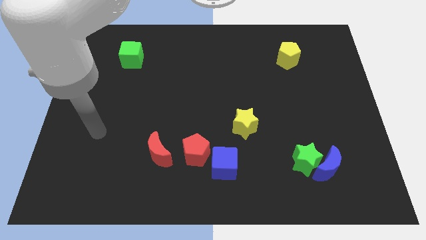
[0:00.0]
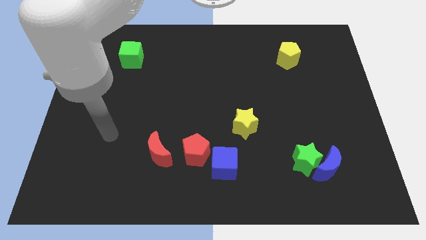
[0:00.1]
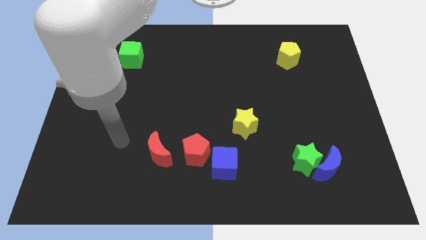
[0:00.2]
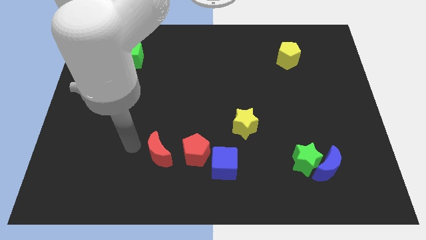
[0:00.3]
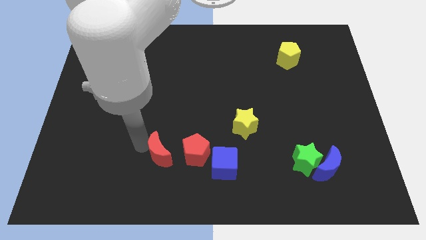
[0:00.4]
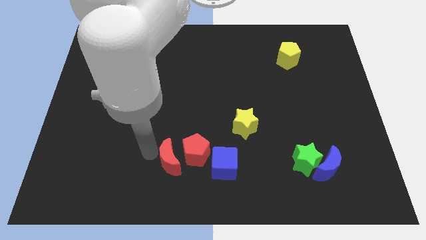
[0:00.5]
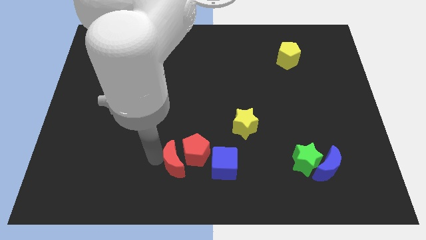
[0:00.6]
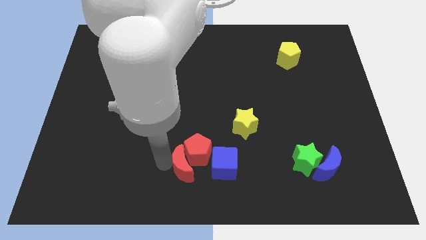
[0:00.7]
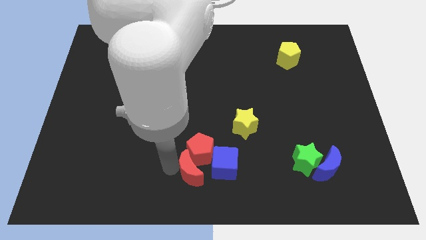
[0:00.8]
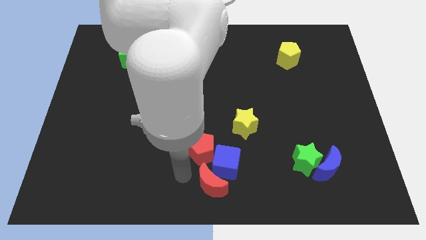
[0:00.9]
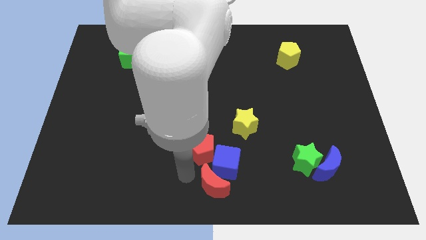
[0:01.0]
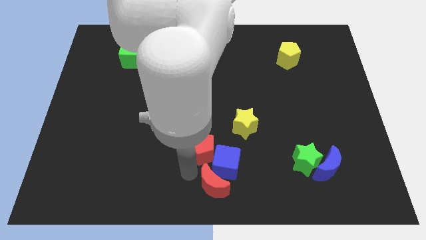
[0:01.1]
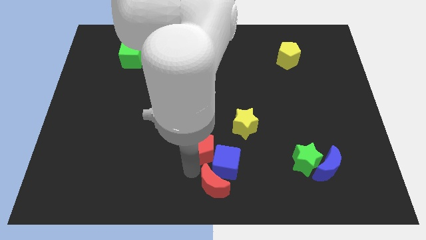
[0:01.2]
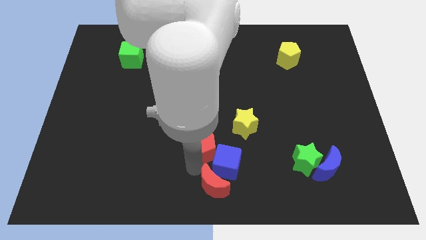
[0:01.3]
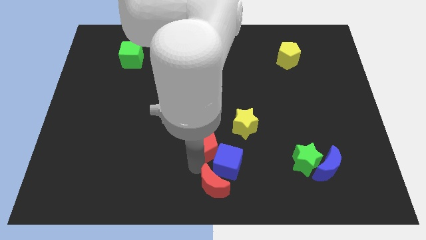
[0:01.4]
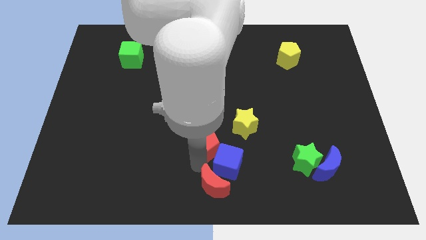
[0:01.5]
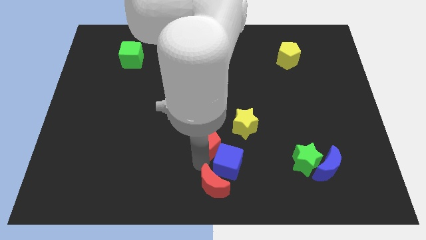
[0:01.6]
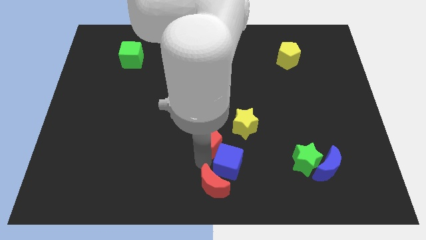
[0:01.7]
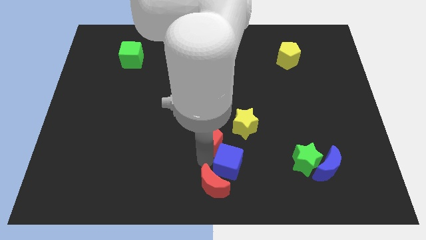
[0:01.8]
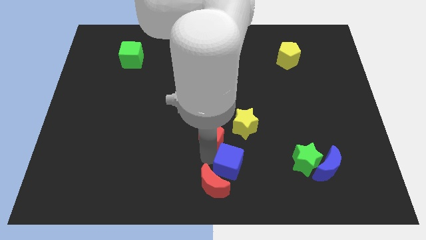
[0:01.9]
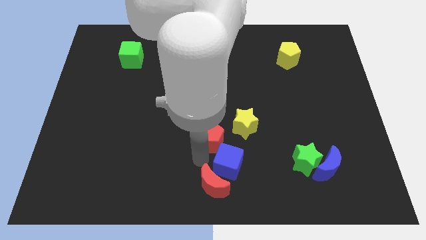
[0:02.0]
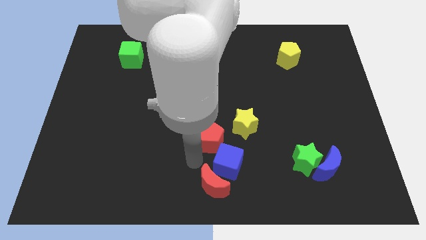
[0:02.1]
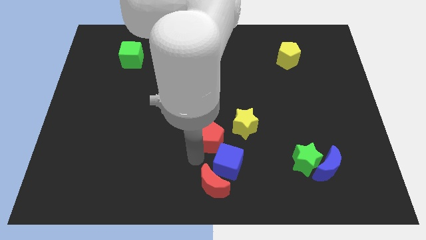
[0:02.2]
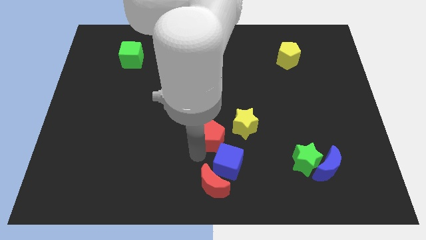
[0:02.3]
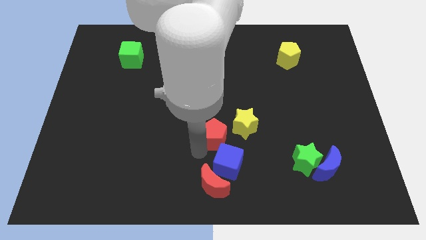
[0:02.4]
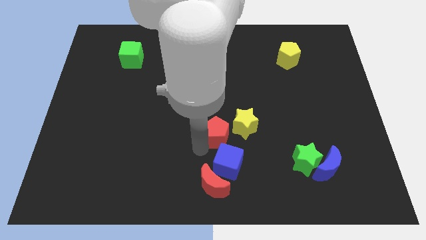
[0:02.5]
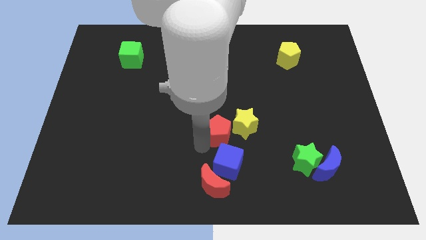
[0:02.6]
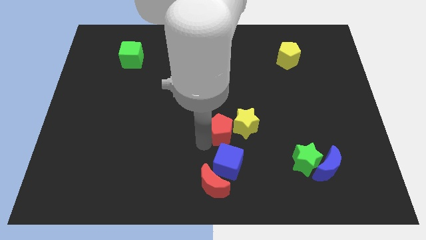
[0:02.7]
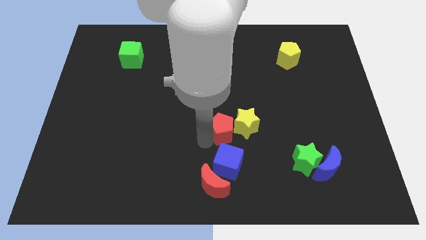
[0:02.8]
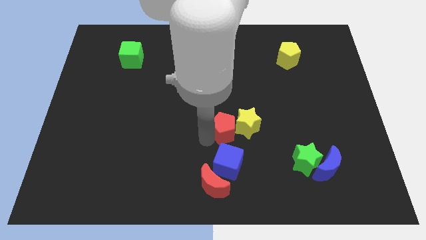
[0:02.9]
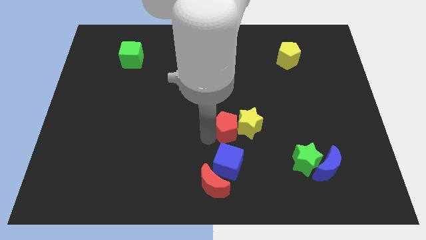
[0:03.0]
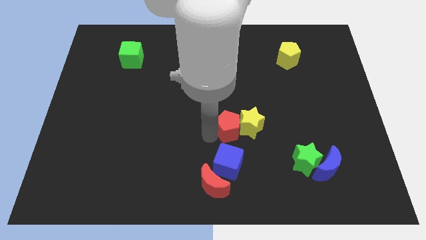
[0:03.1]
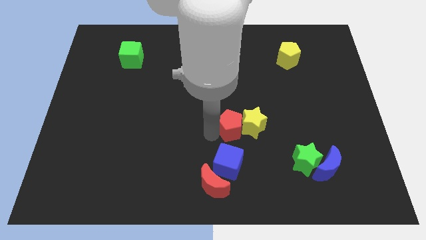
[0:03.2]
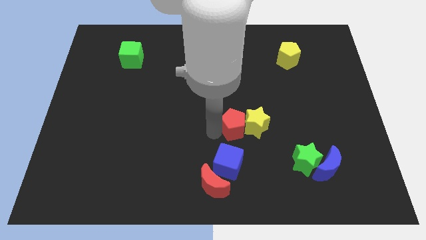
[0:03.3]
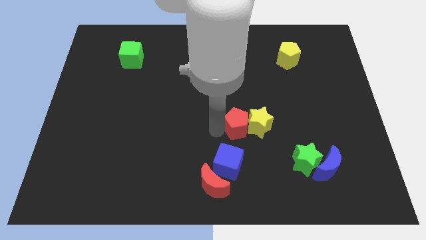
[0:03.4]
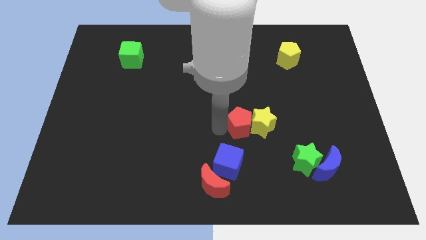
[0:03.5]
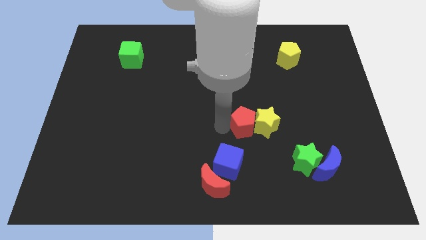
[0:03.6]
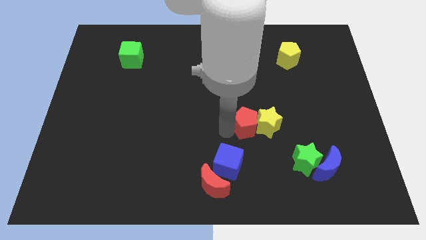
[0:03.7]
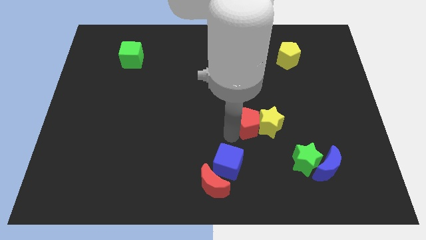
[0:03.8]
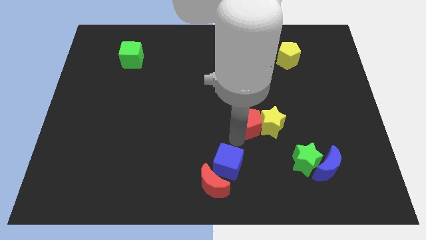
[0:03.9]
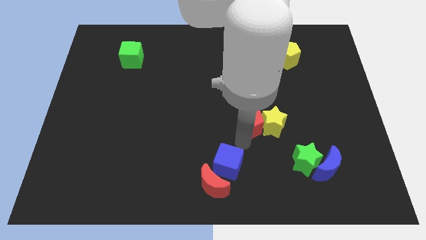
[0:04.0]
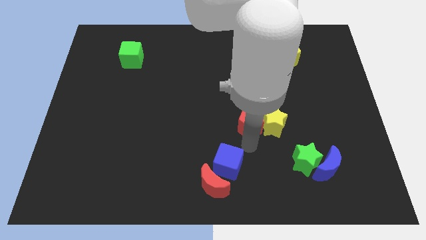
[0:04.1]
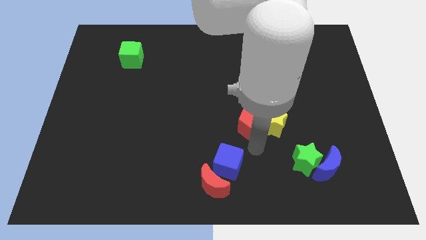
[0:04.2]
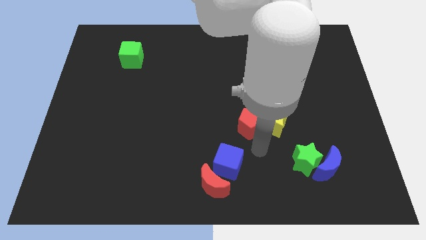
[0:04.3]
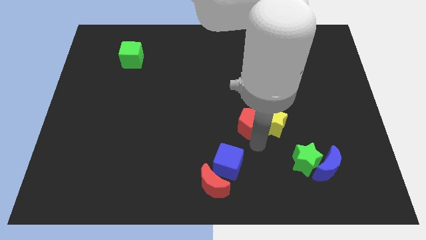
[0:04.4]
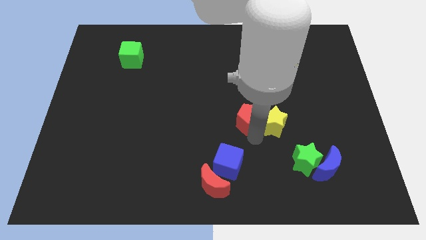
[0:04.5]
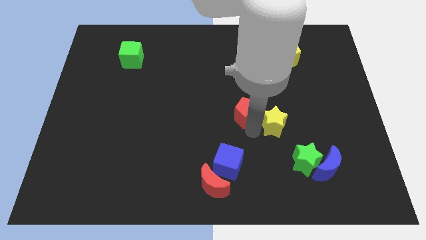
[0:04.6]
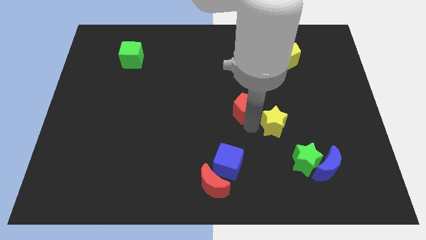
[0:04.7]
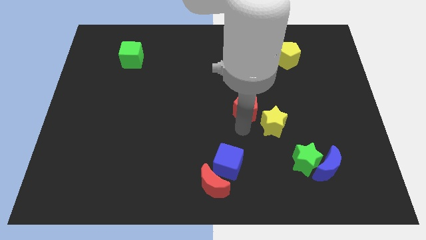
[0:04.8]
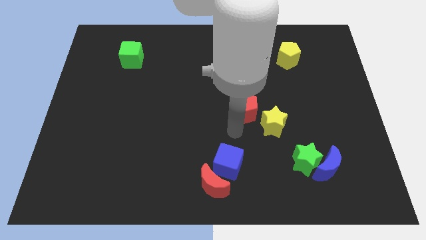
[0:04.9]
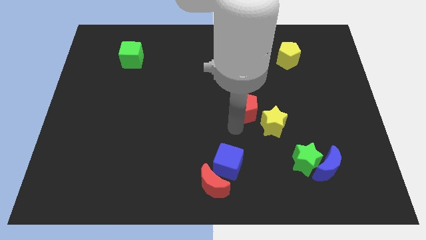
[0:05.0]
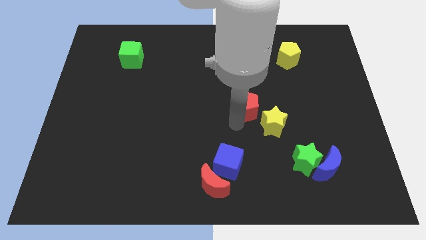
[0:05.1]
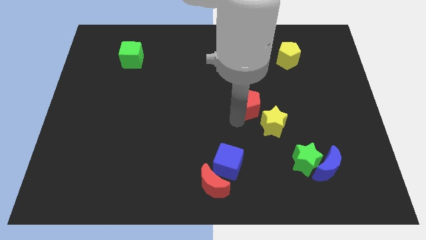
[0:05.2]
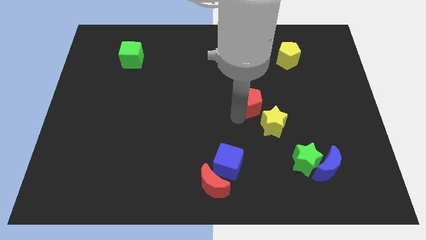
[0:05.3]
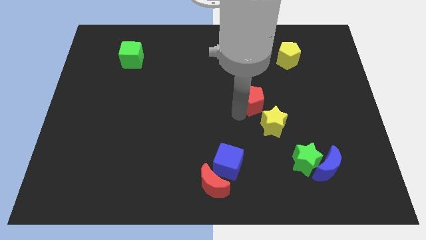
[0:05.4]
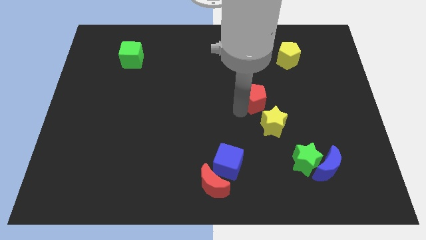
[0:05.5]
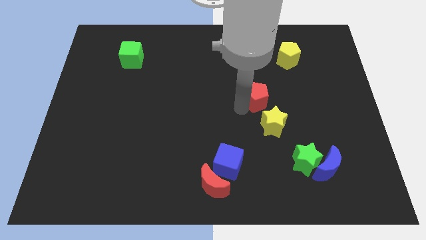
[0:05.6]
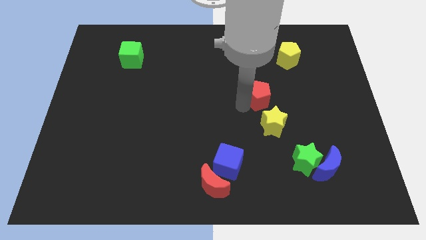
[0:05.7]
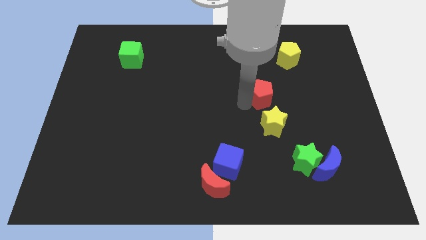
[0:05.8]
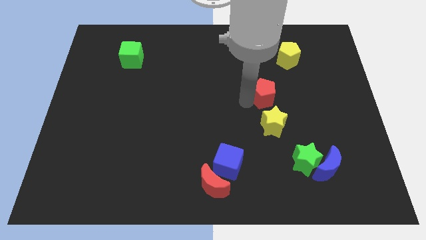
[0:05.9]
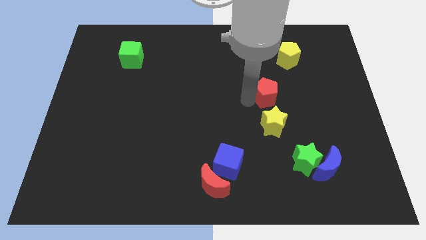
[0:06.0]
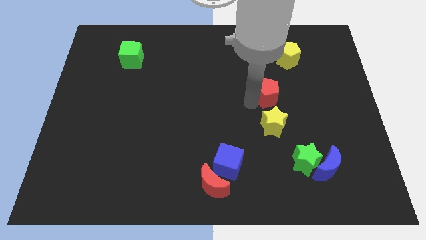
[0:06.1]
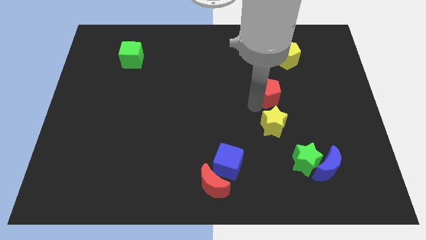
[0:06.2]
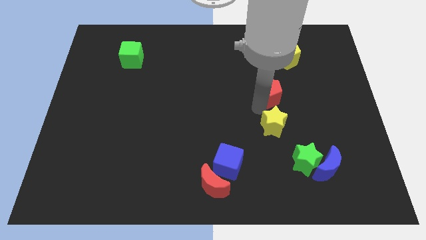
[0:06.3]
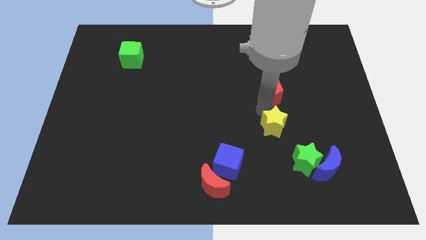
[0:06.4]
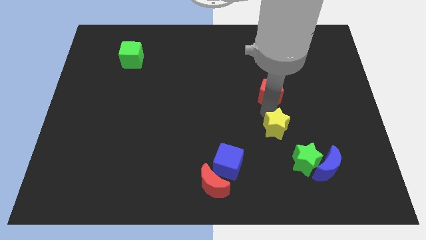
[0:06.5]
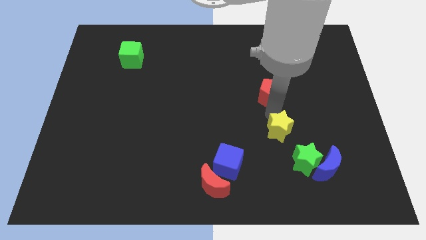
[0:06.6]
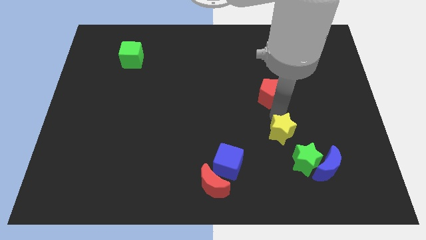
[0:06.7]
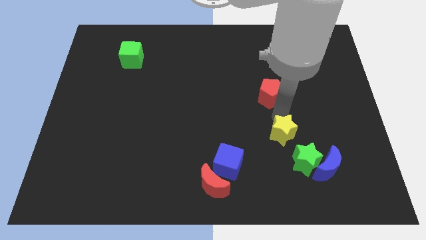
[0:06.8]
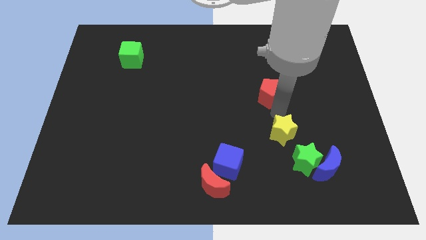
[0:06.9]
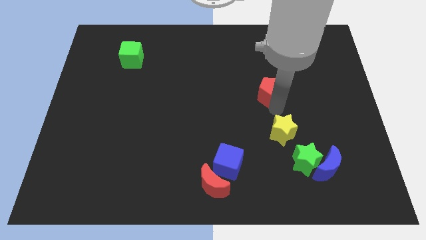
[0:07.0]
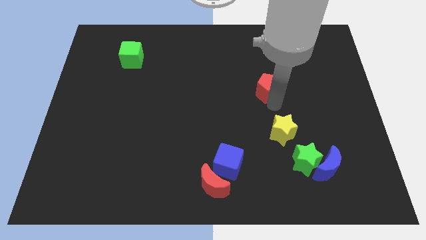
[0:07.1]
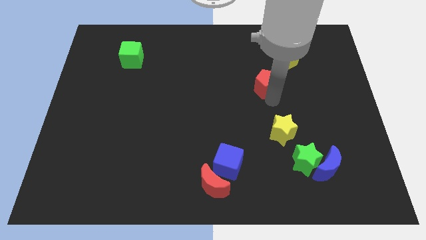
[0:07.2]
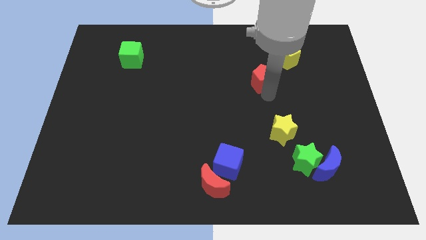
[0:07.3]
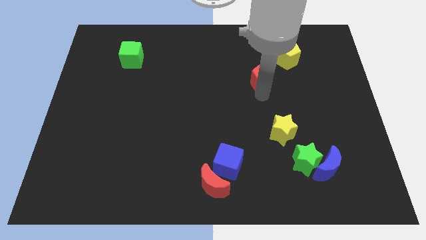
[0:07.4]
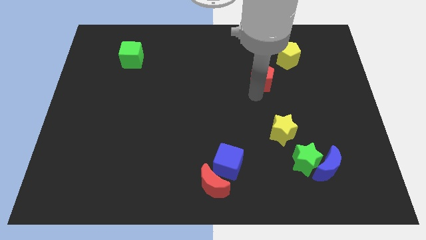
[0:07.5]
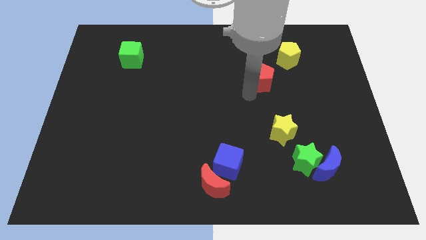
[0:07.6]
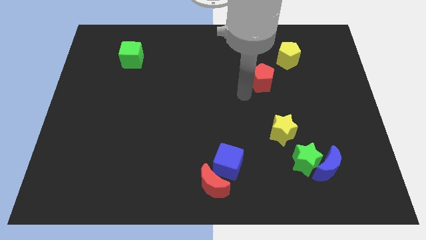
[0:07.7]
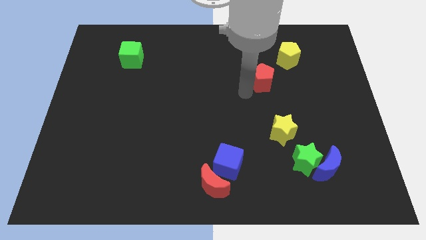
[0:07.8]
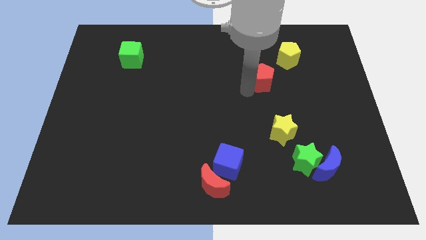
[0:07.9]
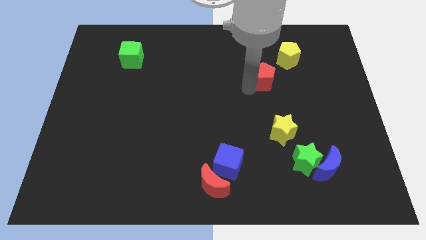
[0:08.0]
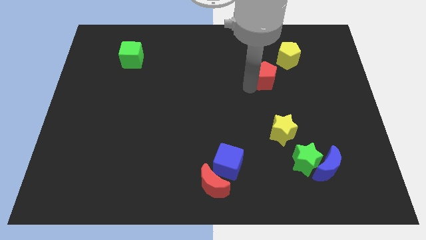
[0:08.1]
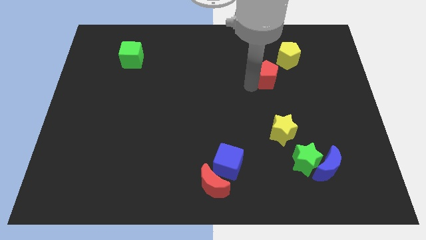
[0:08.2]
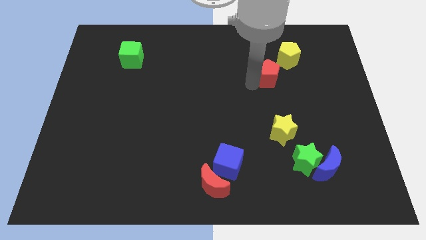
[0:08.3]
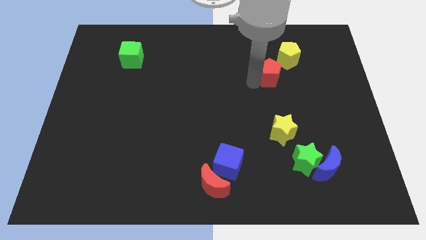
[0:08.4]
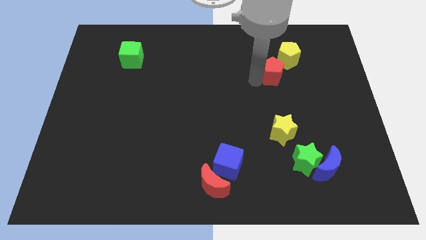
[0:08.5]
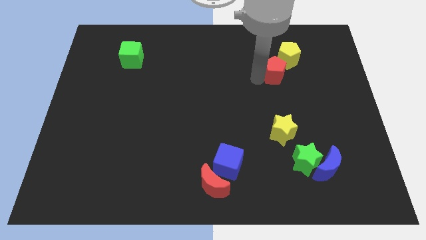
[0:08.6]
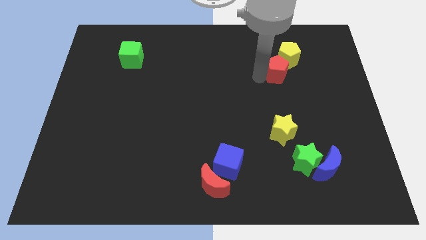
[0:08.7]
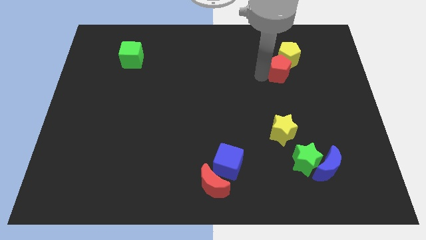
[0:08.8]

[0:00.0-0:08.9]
push the red pentagon to the yellow pentagon
